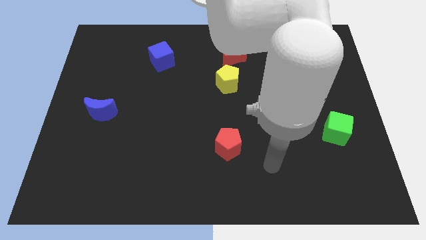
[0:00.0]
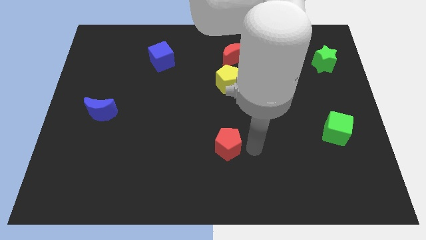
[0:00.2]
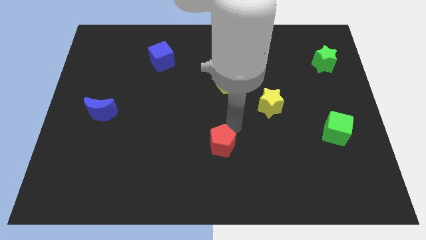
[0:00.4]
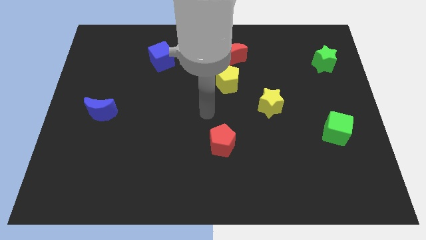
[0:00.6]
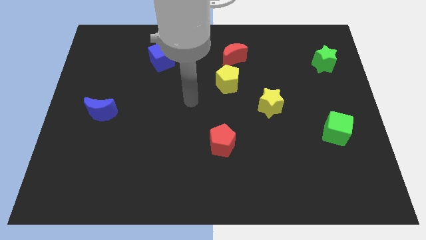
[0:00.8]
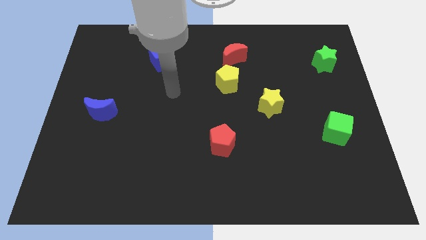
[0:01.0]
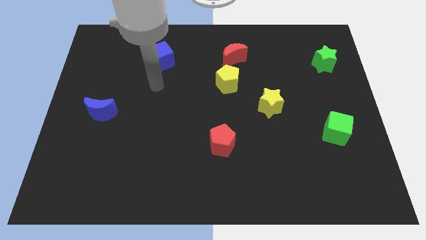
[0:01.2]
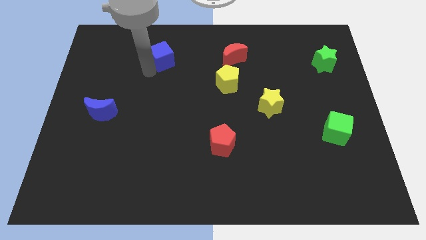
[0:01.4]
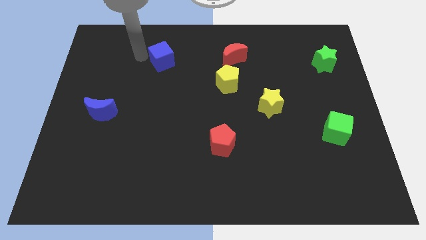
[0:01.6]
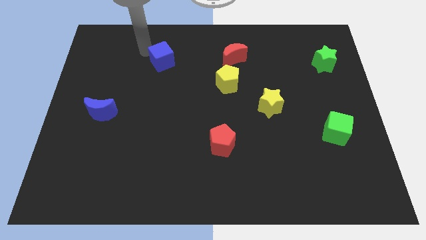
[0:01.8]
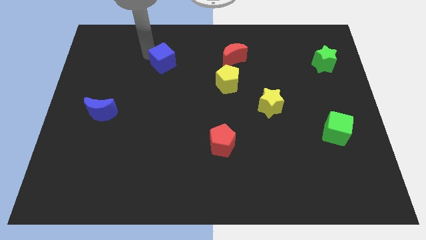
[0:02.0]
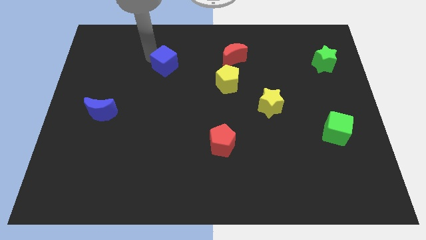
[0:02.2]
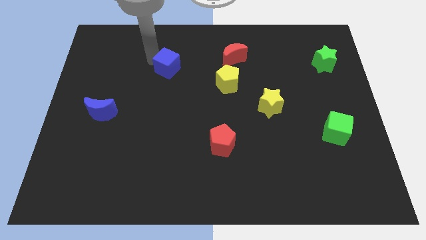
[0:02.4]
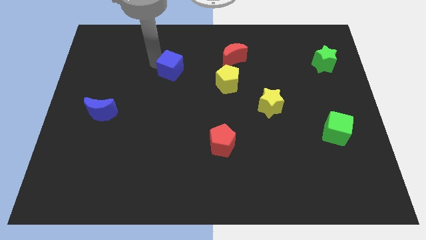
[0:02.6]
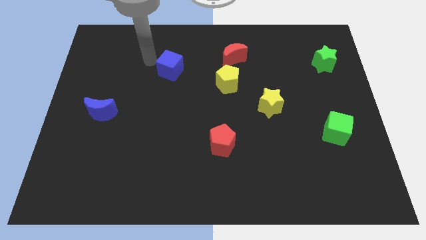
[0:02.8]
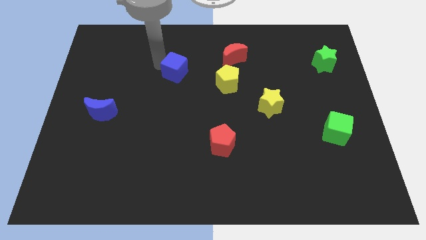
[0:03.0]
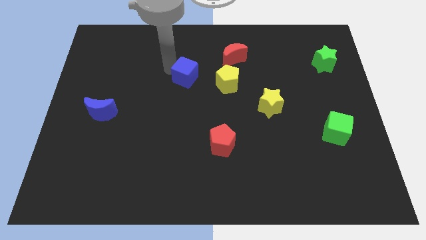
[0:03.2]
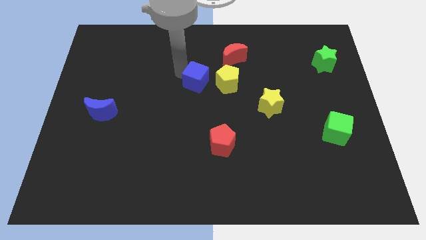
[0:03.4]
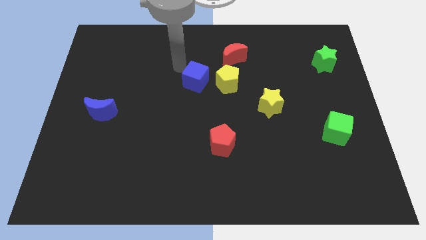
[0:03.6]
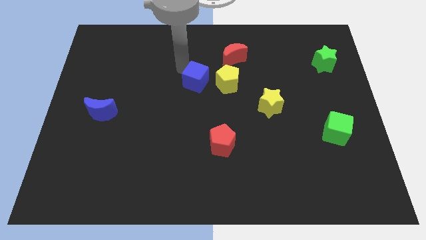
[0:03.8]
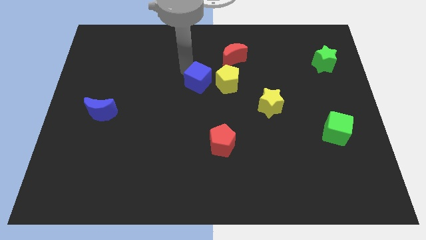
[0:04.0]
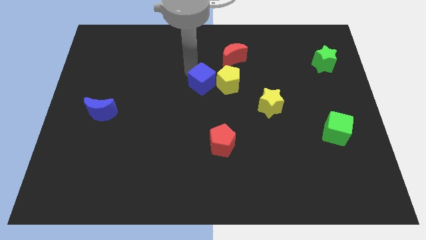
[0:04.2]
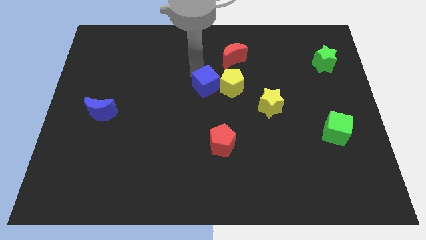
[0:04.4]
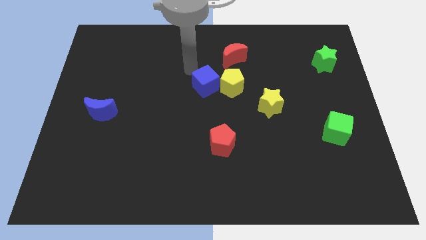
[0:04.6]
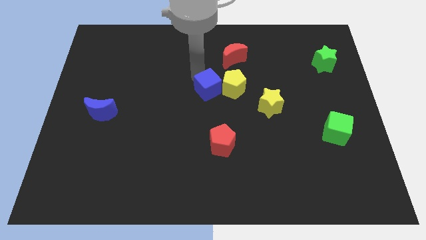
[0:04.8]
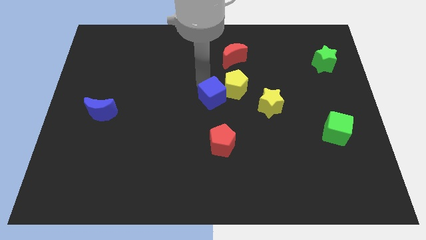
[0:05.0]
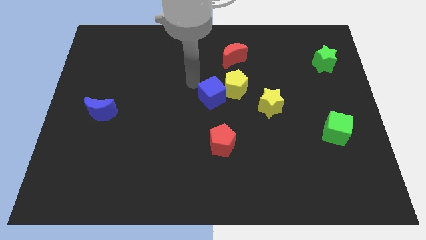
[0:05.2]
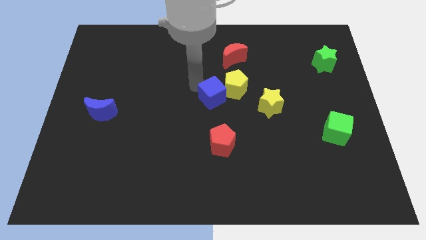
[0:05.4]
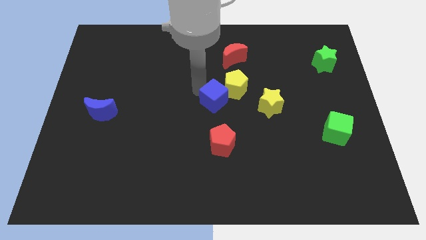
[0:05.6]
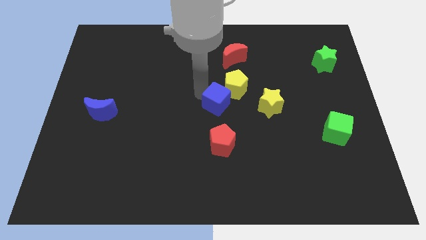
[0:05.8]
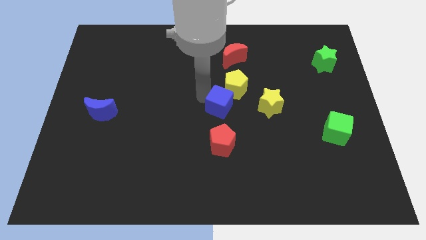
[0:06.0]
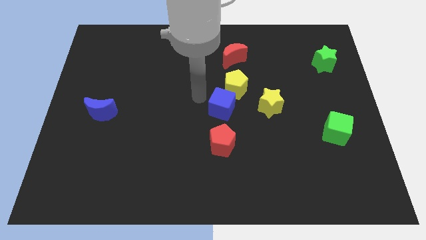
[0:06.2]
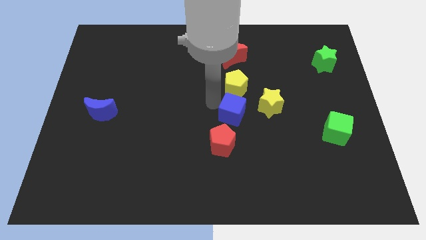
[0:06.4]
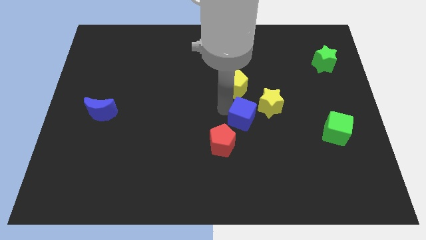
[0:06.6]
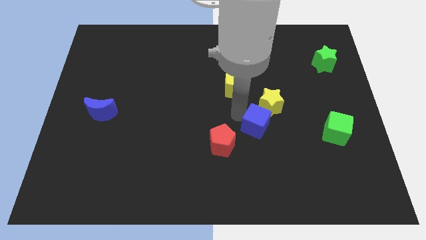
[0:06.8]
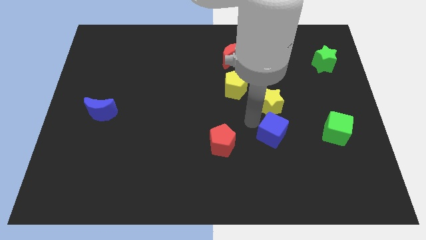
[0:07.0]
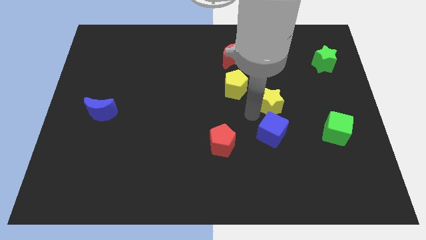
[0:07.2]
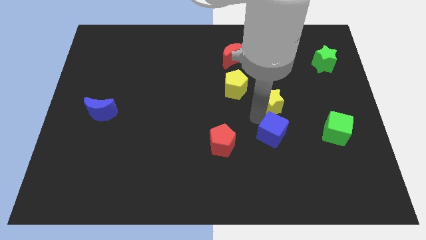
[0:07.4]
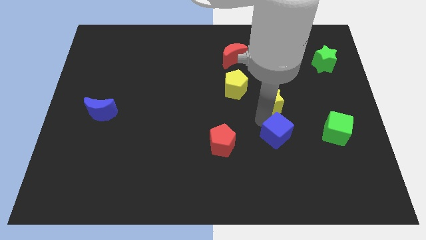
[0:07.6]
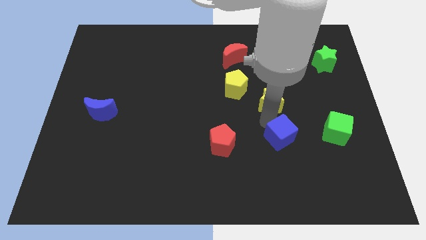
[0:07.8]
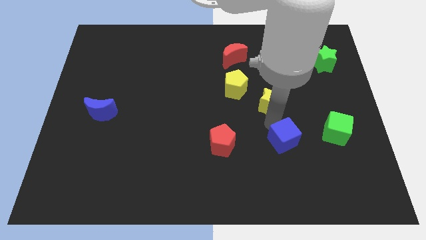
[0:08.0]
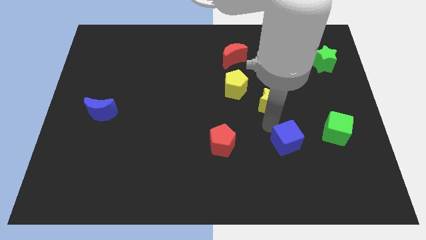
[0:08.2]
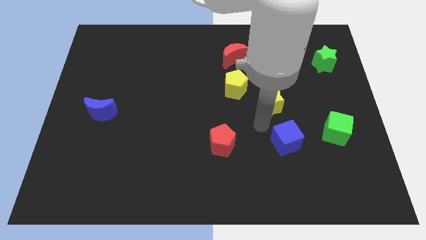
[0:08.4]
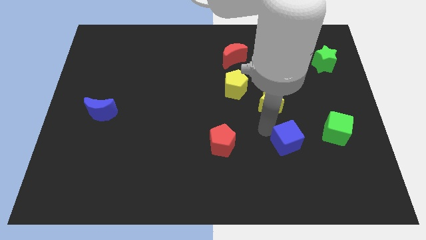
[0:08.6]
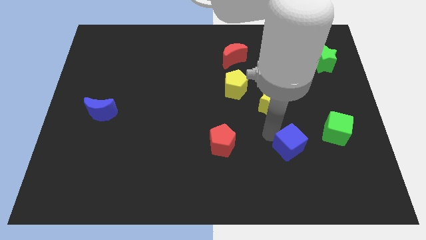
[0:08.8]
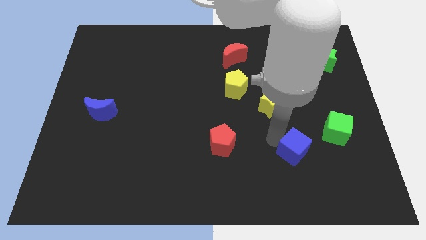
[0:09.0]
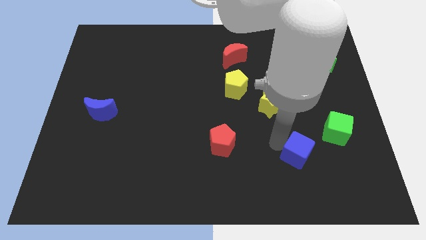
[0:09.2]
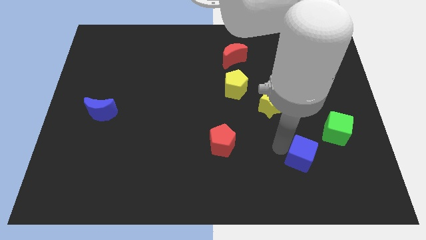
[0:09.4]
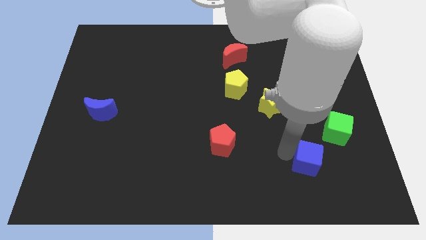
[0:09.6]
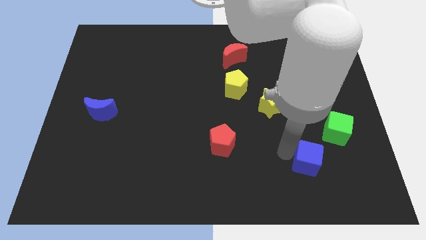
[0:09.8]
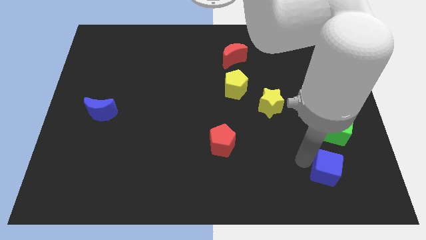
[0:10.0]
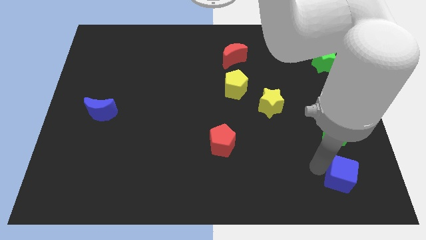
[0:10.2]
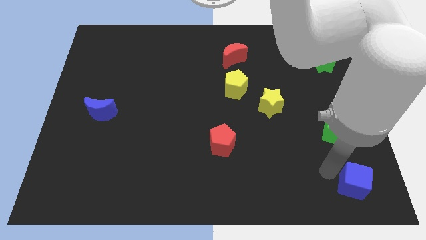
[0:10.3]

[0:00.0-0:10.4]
move the blue cube to the bottom right
